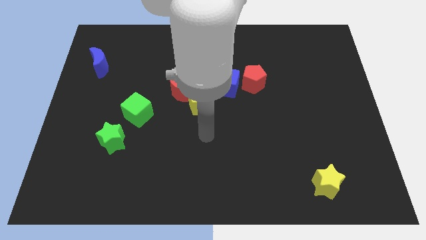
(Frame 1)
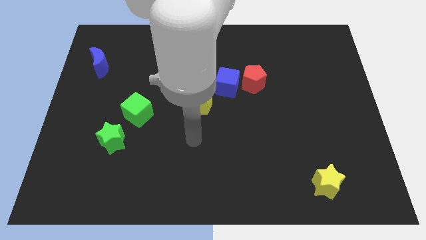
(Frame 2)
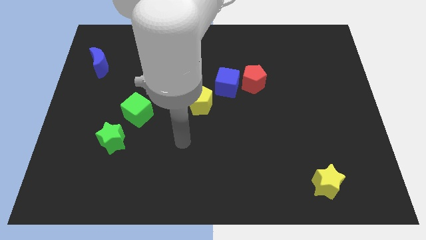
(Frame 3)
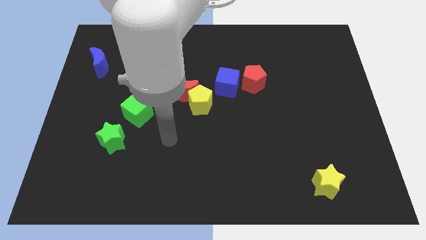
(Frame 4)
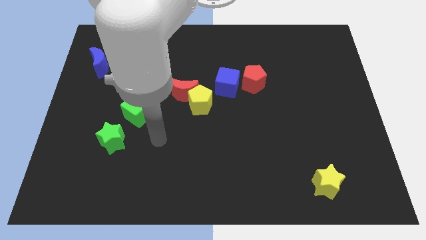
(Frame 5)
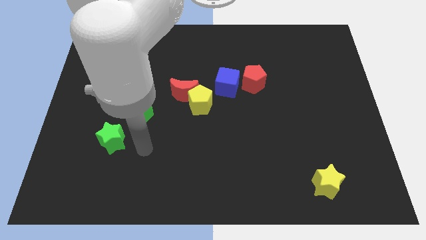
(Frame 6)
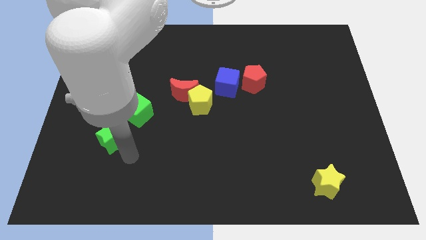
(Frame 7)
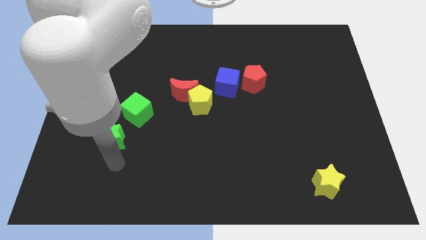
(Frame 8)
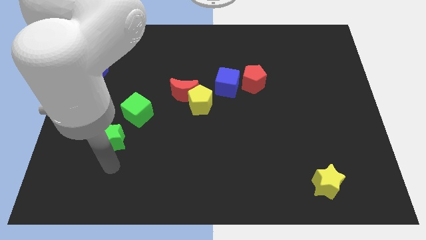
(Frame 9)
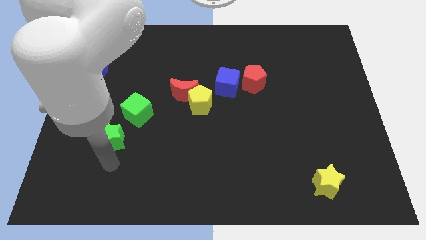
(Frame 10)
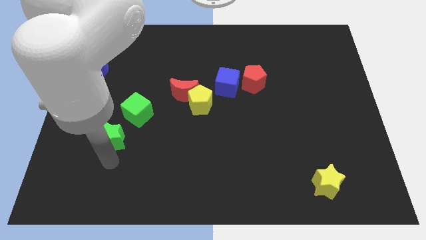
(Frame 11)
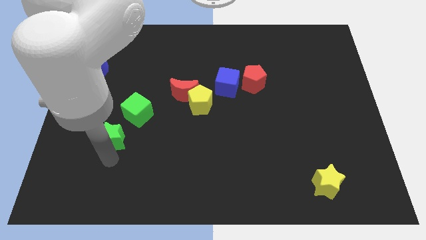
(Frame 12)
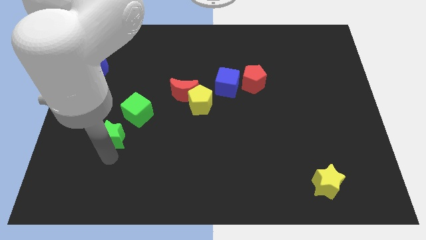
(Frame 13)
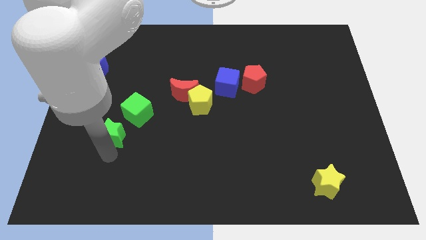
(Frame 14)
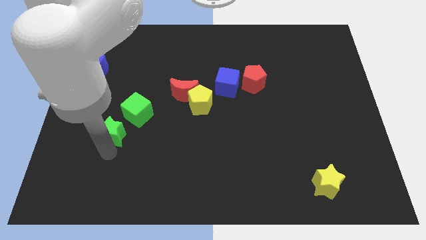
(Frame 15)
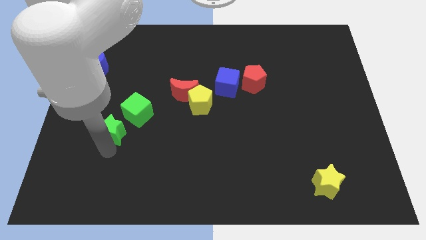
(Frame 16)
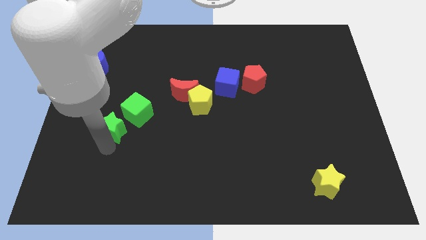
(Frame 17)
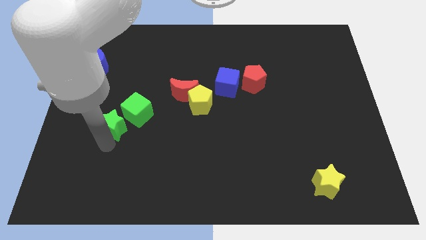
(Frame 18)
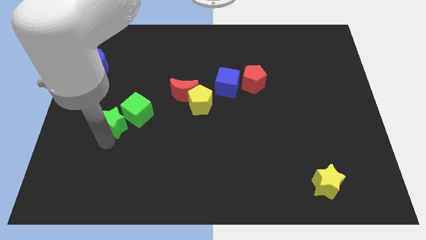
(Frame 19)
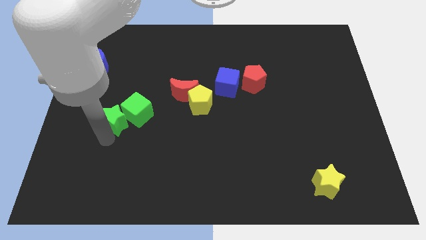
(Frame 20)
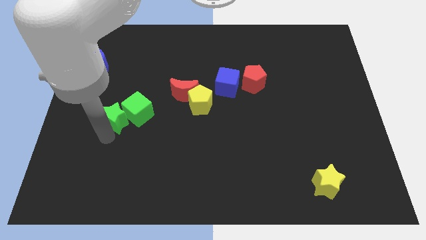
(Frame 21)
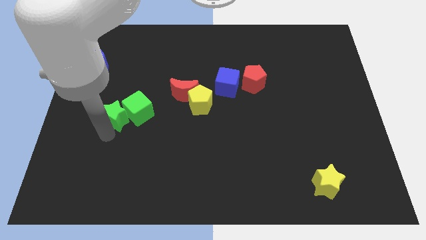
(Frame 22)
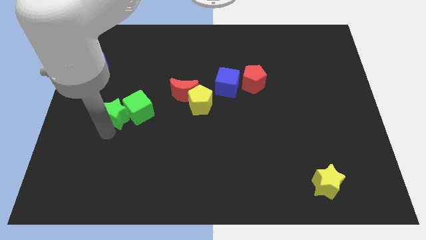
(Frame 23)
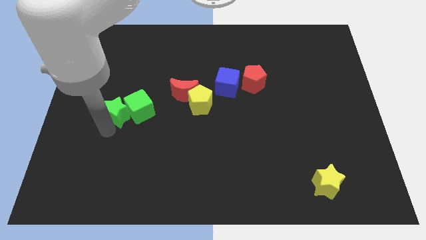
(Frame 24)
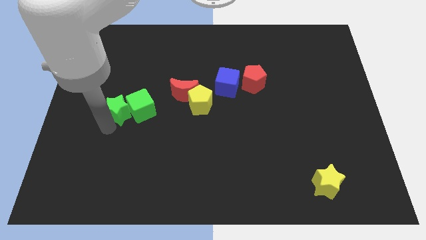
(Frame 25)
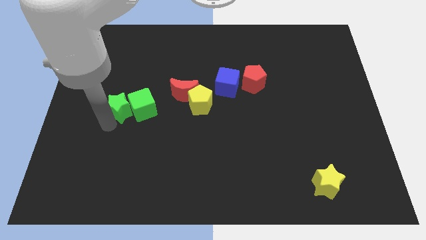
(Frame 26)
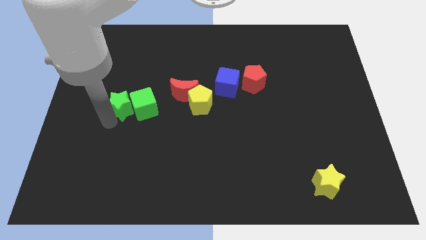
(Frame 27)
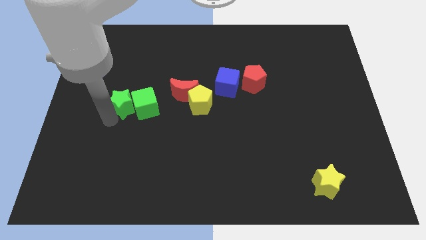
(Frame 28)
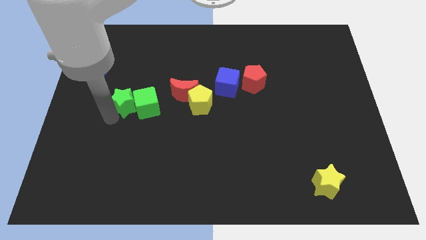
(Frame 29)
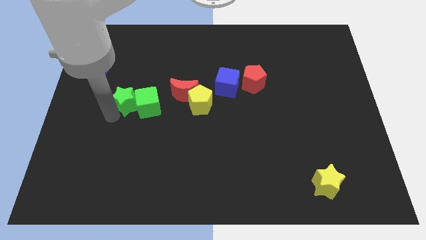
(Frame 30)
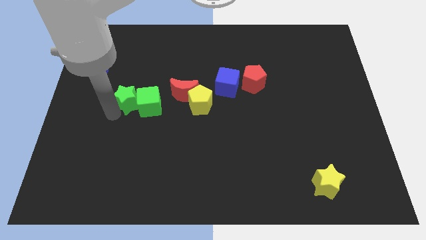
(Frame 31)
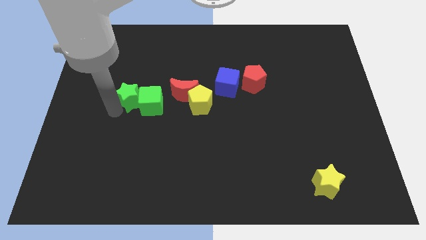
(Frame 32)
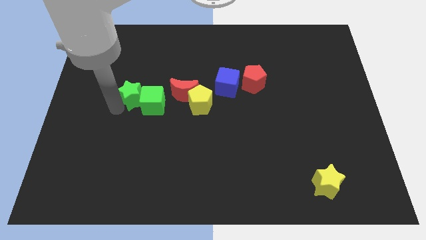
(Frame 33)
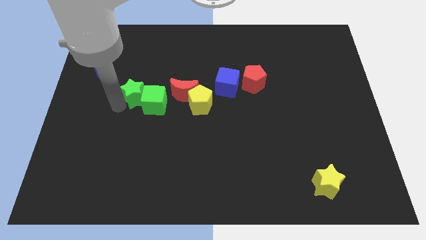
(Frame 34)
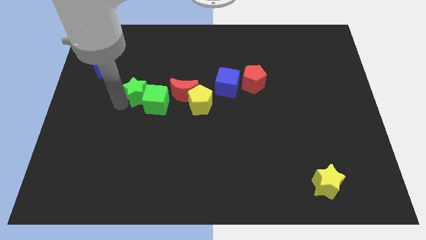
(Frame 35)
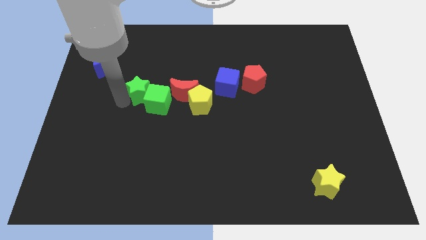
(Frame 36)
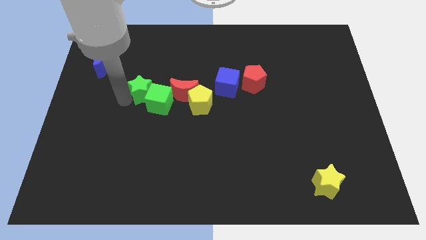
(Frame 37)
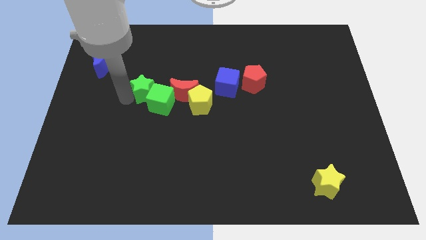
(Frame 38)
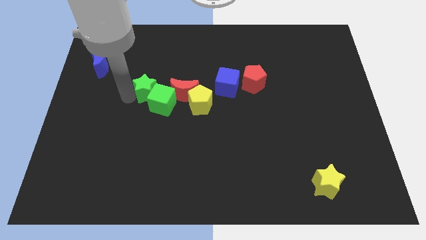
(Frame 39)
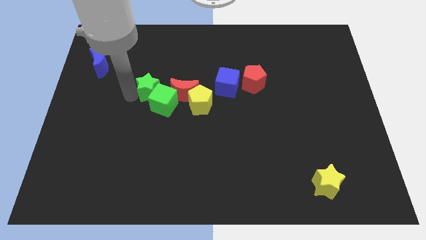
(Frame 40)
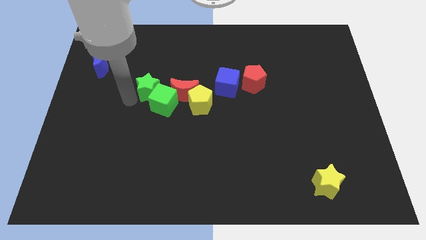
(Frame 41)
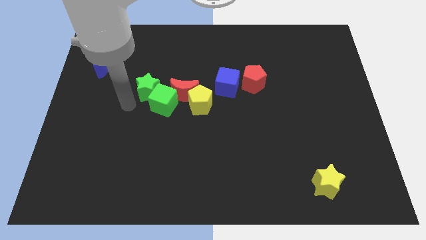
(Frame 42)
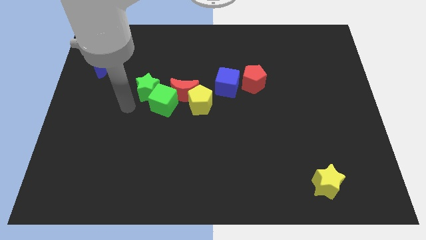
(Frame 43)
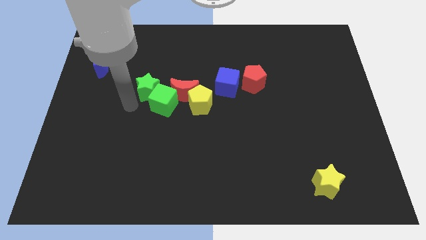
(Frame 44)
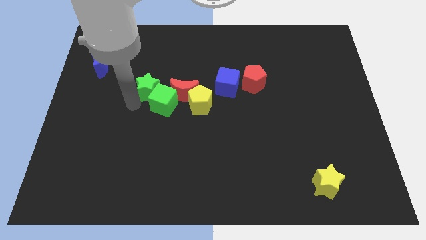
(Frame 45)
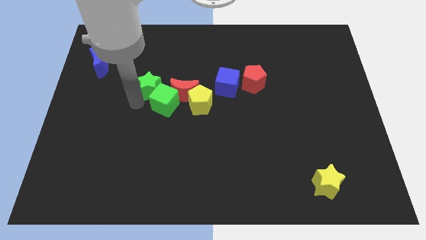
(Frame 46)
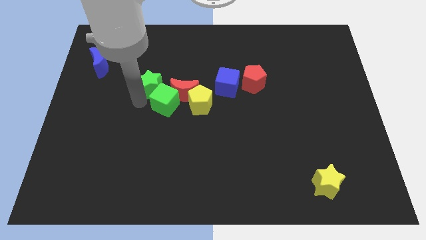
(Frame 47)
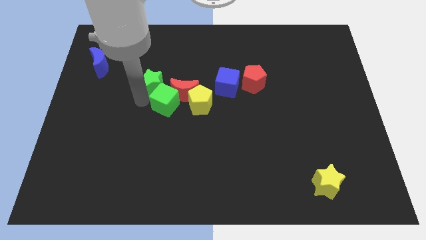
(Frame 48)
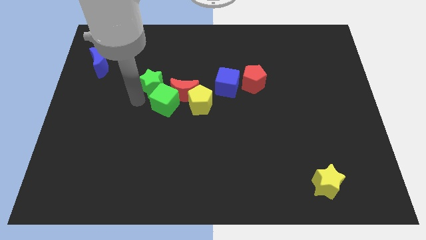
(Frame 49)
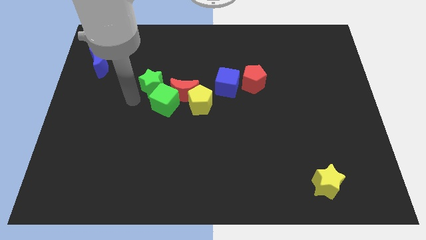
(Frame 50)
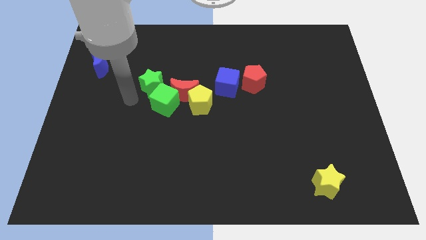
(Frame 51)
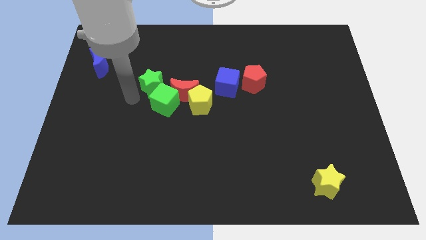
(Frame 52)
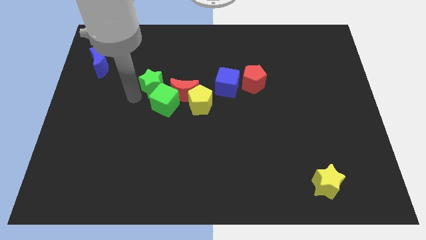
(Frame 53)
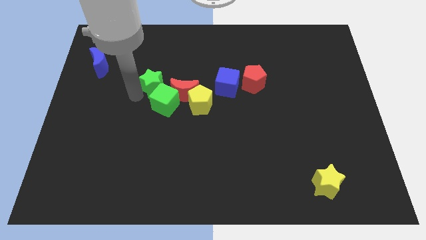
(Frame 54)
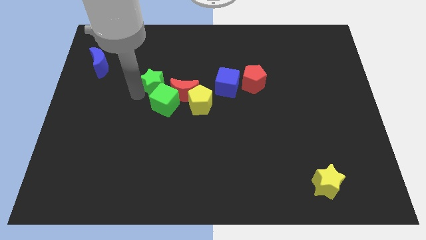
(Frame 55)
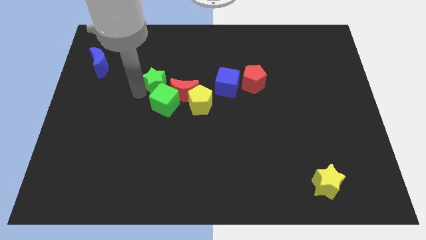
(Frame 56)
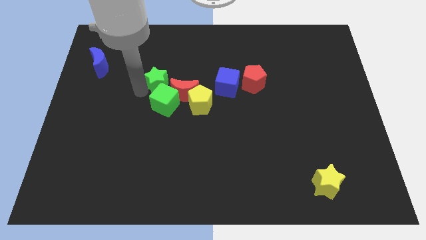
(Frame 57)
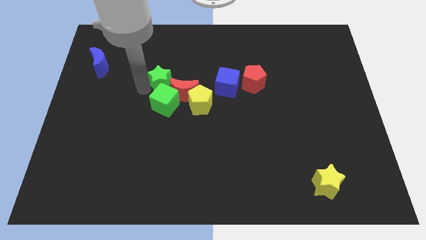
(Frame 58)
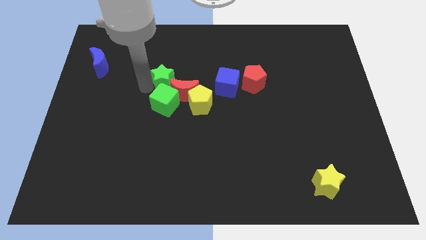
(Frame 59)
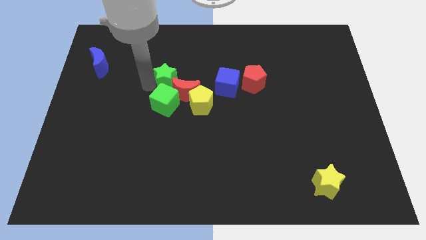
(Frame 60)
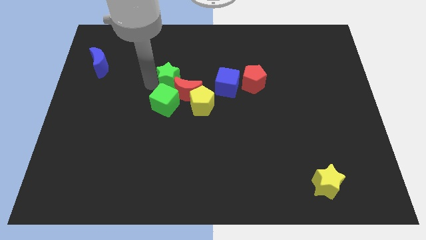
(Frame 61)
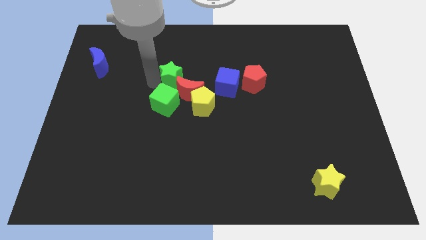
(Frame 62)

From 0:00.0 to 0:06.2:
slide the green star diagonally upwards and to the right

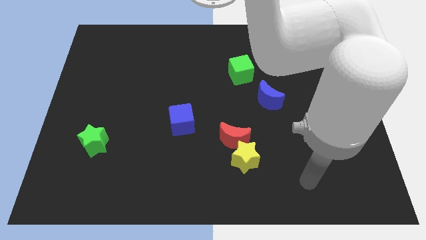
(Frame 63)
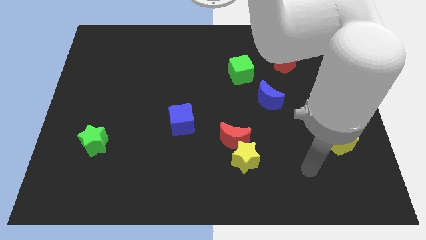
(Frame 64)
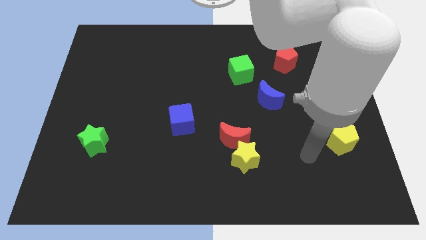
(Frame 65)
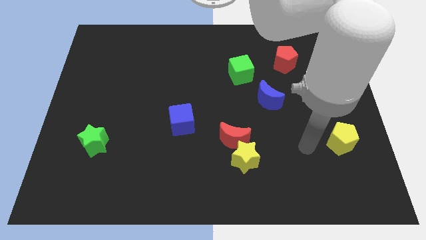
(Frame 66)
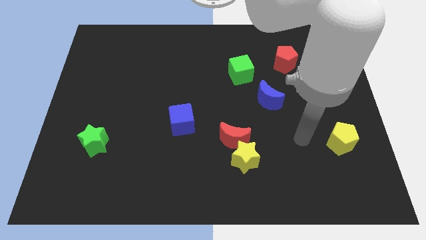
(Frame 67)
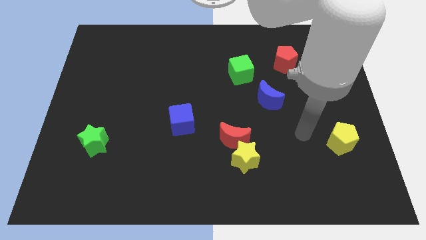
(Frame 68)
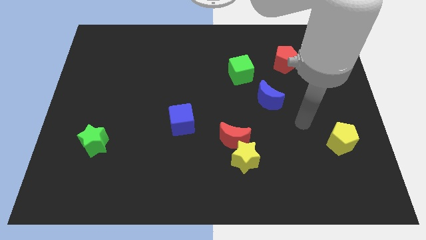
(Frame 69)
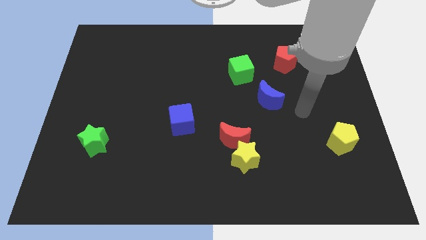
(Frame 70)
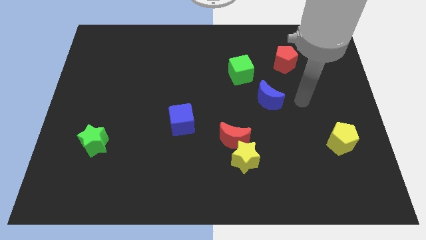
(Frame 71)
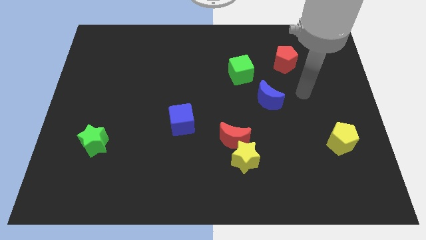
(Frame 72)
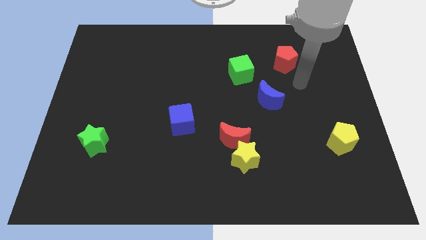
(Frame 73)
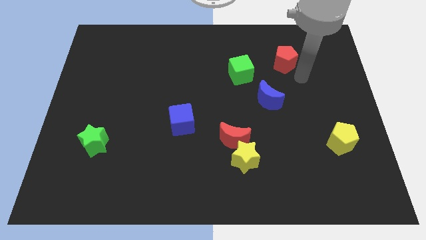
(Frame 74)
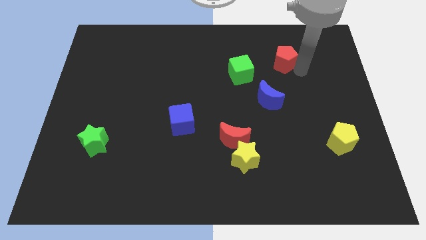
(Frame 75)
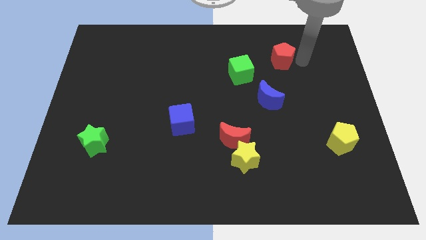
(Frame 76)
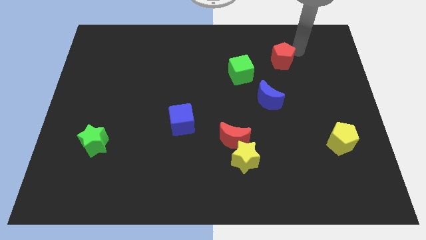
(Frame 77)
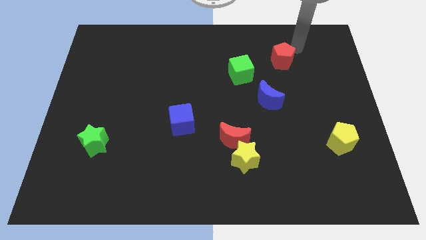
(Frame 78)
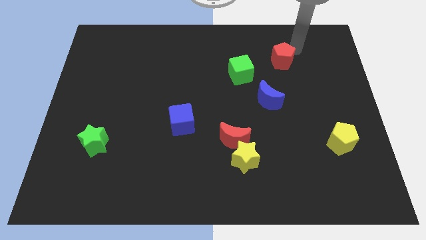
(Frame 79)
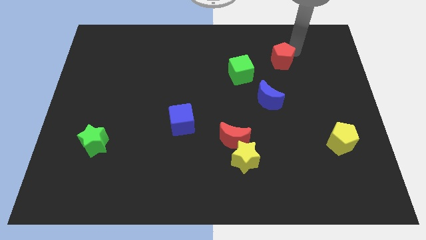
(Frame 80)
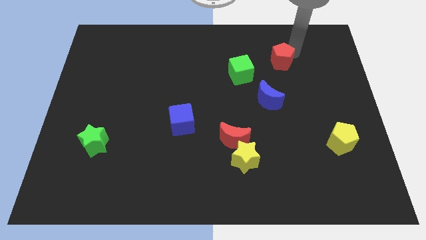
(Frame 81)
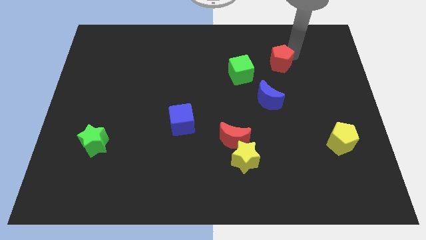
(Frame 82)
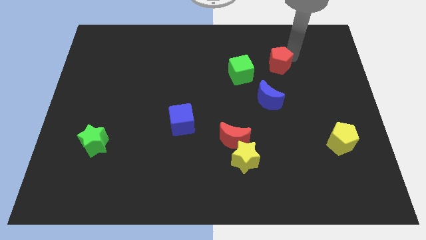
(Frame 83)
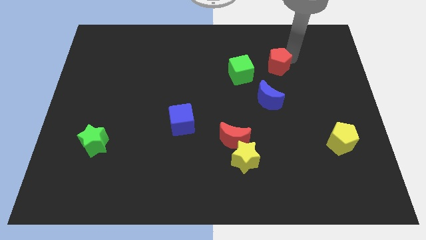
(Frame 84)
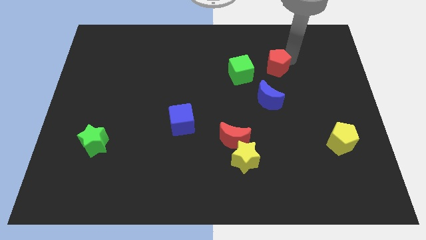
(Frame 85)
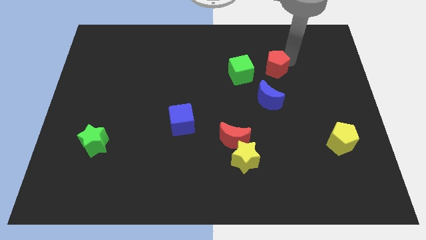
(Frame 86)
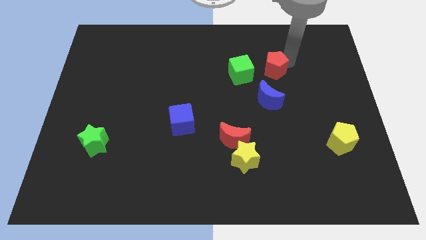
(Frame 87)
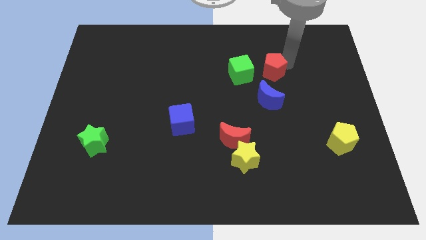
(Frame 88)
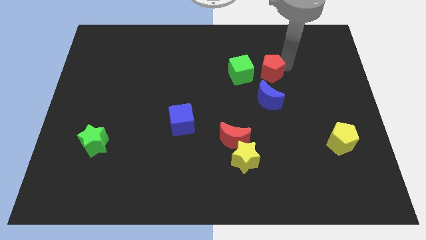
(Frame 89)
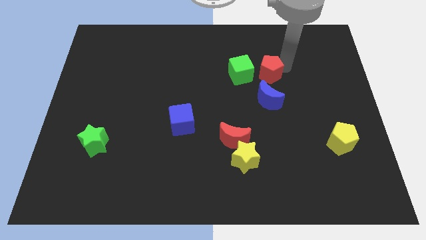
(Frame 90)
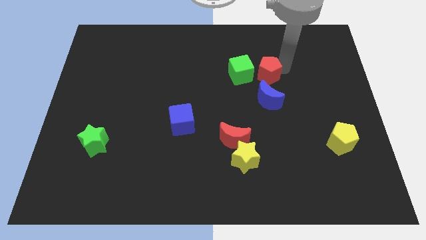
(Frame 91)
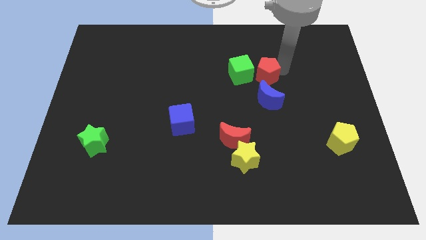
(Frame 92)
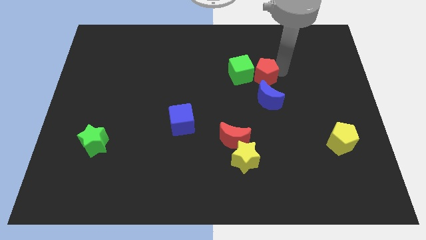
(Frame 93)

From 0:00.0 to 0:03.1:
slightly move the red pentagon down and left
